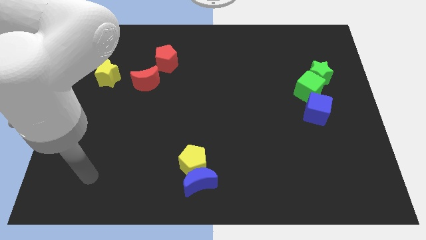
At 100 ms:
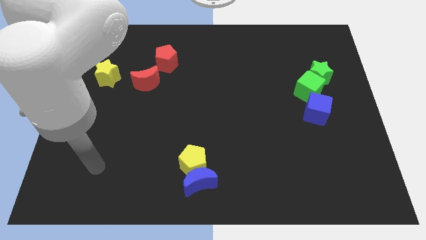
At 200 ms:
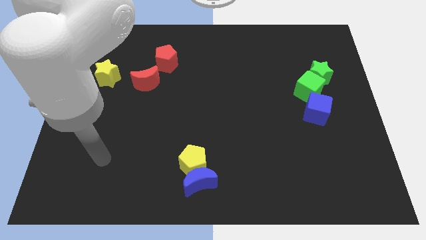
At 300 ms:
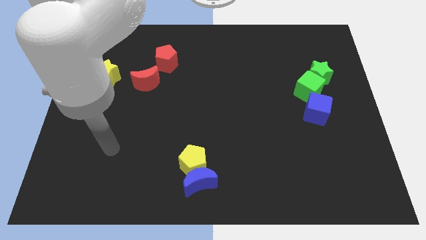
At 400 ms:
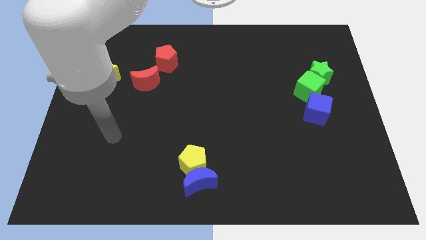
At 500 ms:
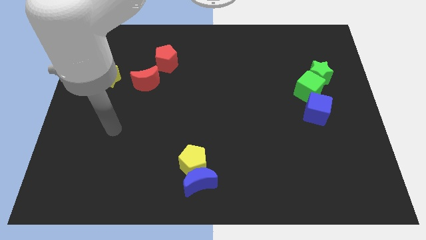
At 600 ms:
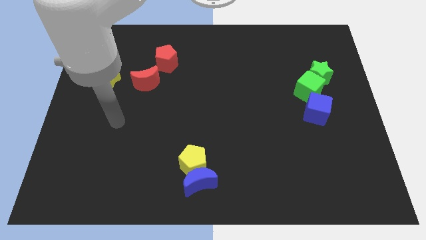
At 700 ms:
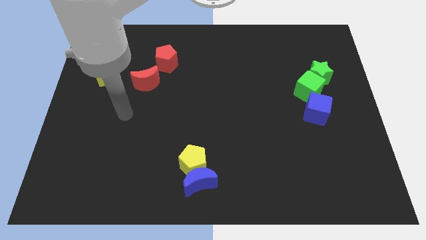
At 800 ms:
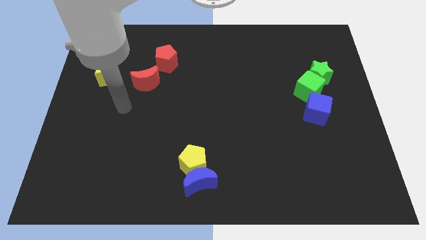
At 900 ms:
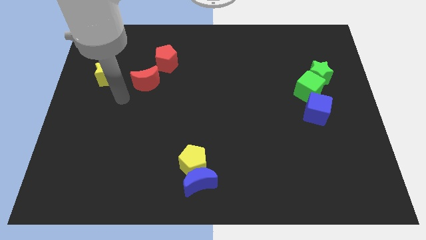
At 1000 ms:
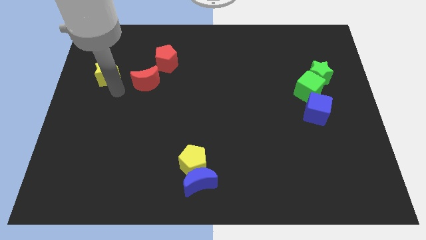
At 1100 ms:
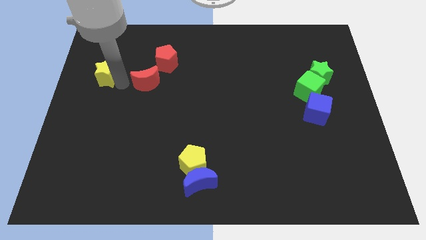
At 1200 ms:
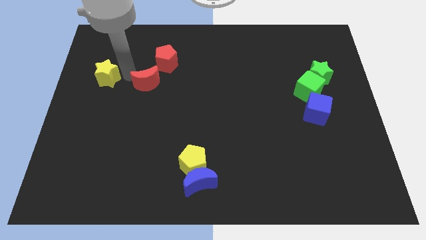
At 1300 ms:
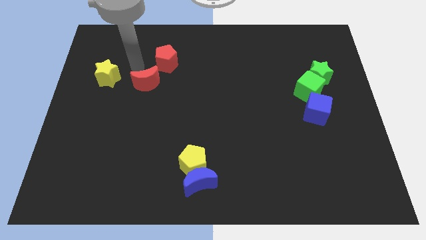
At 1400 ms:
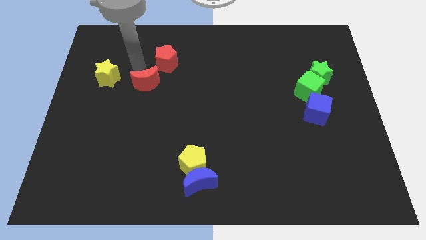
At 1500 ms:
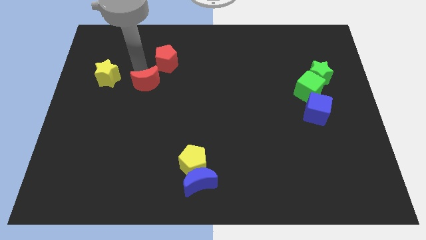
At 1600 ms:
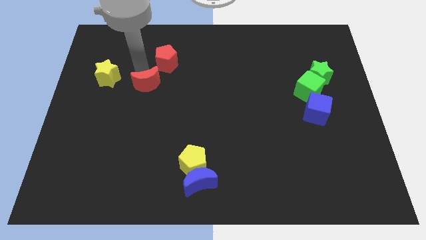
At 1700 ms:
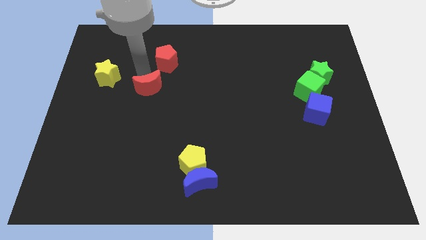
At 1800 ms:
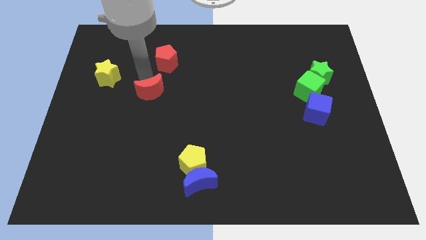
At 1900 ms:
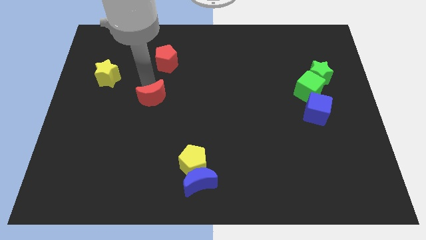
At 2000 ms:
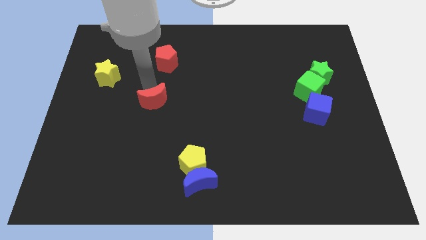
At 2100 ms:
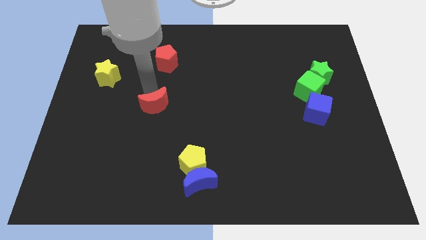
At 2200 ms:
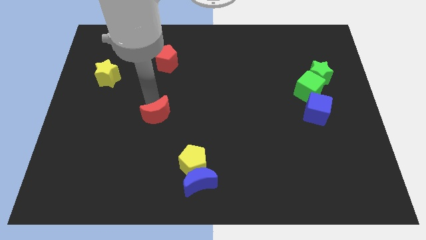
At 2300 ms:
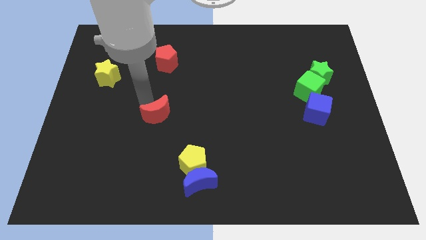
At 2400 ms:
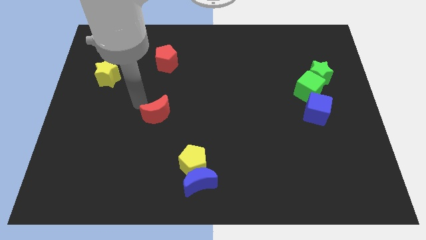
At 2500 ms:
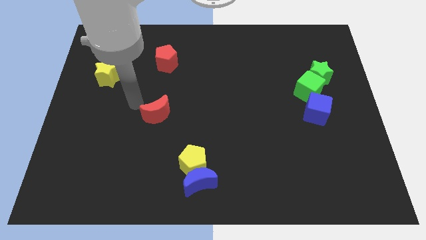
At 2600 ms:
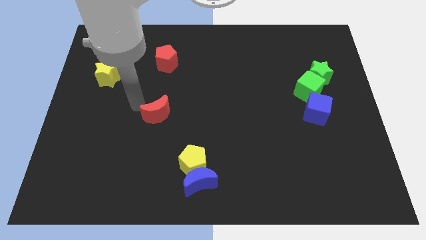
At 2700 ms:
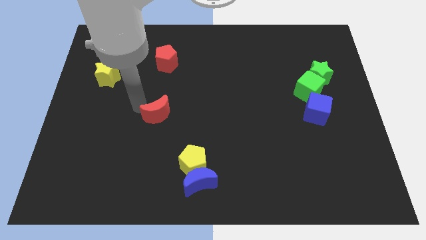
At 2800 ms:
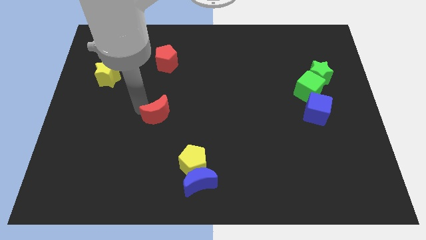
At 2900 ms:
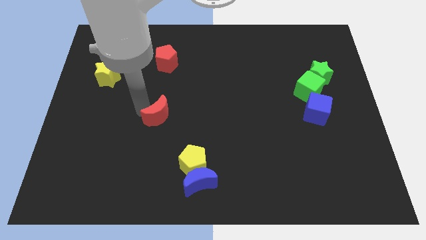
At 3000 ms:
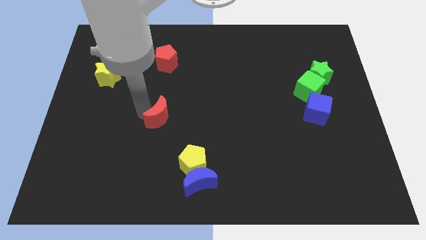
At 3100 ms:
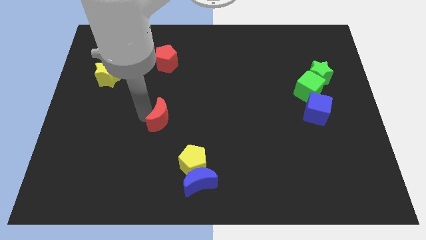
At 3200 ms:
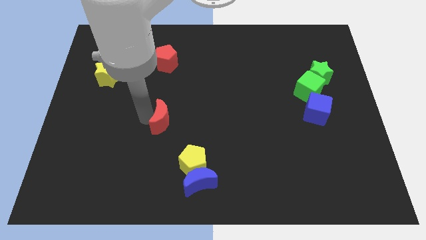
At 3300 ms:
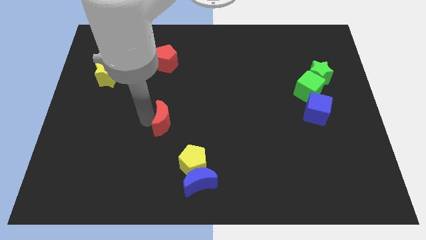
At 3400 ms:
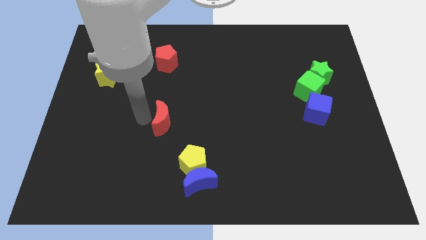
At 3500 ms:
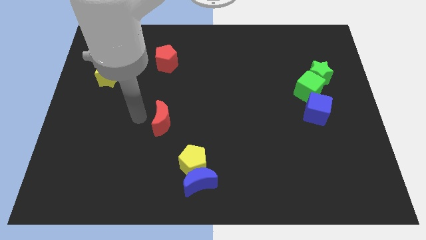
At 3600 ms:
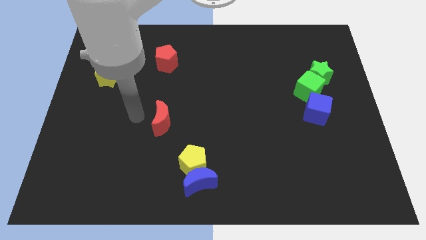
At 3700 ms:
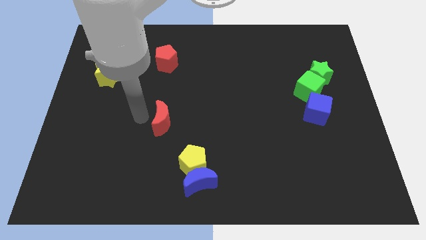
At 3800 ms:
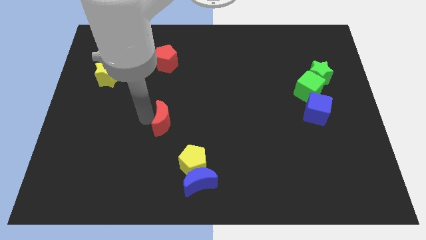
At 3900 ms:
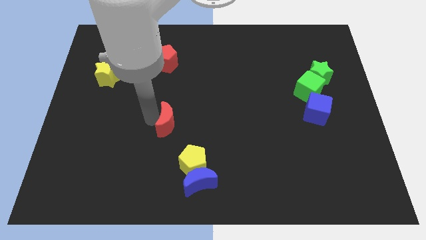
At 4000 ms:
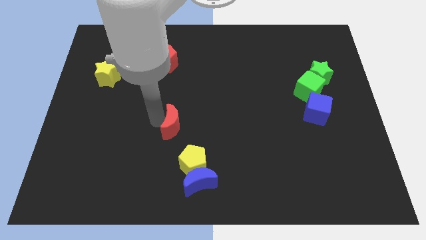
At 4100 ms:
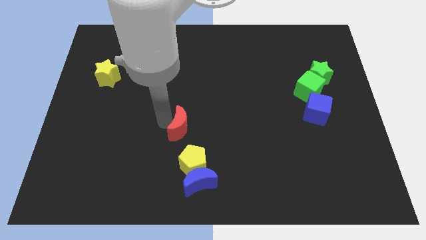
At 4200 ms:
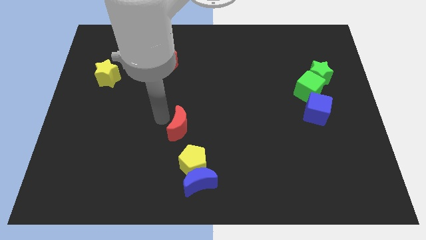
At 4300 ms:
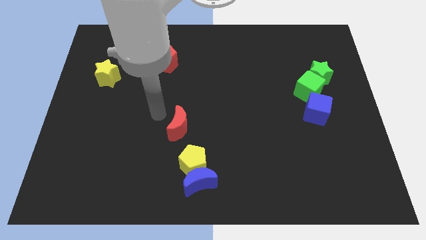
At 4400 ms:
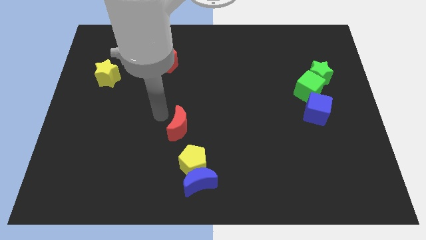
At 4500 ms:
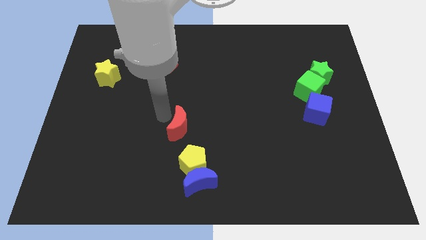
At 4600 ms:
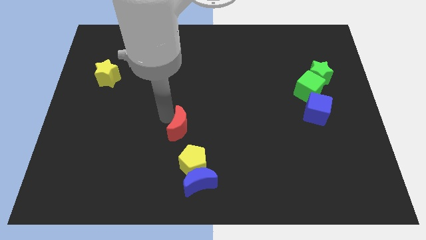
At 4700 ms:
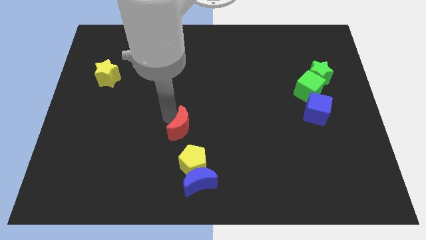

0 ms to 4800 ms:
push the red moon to the top side of the blue moon

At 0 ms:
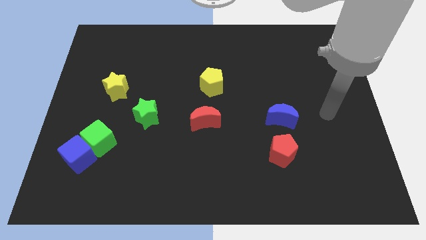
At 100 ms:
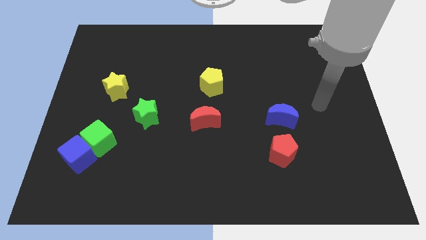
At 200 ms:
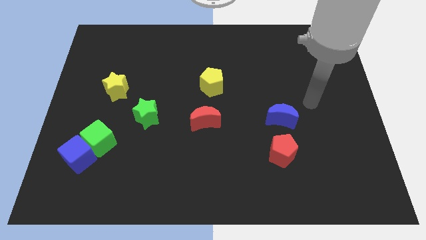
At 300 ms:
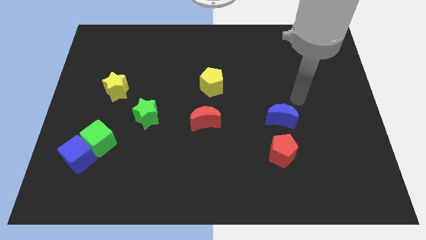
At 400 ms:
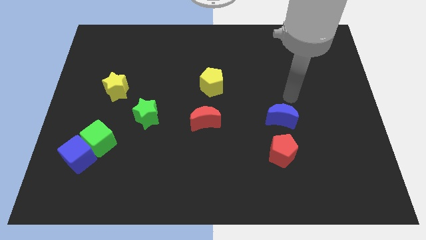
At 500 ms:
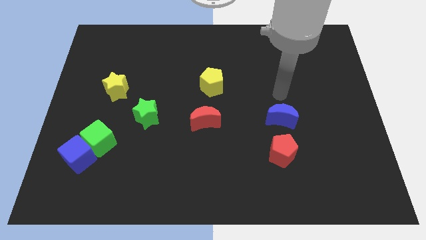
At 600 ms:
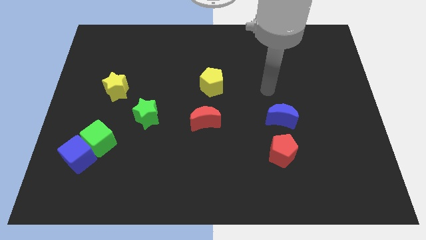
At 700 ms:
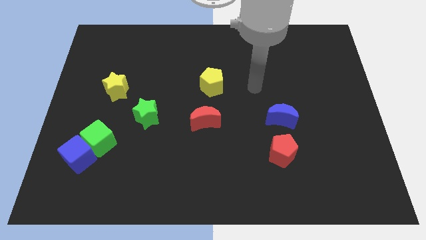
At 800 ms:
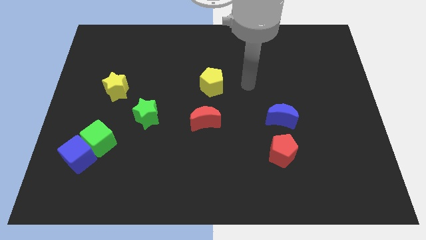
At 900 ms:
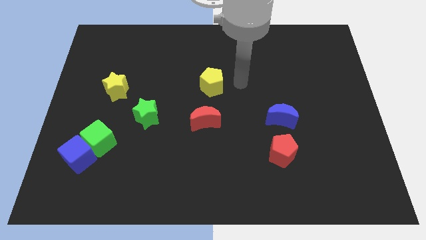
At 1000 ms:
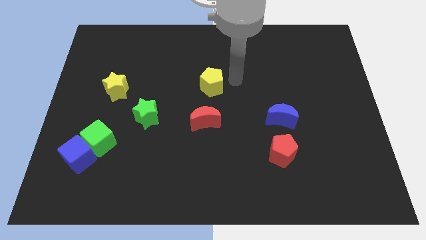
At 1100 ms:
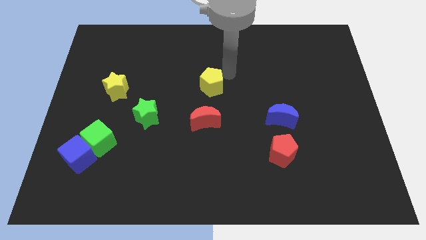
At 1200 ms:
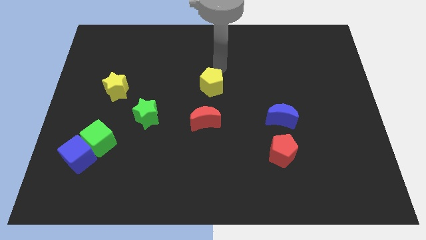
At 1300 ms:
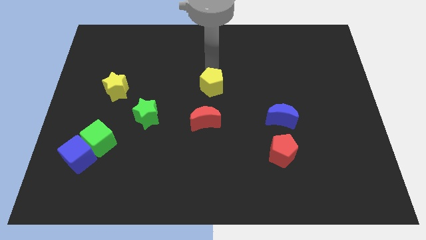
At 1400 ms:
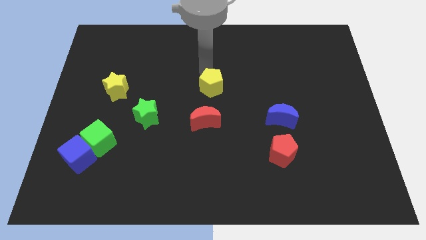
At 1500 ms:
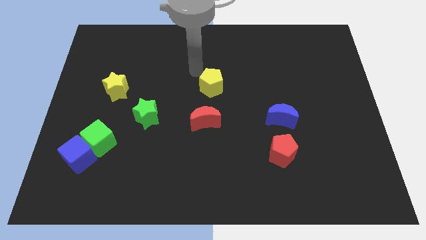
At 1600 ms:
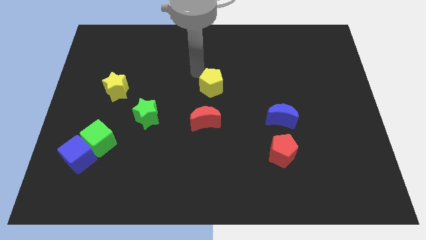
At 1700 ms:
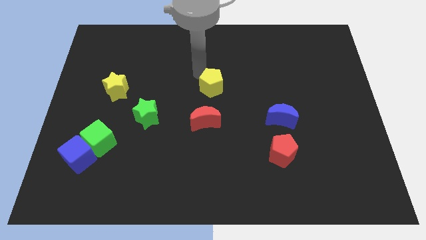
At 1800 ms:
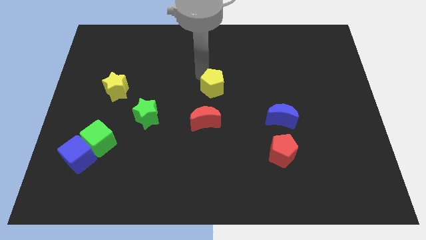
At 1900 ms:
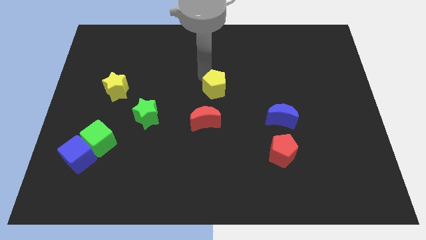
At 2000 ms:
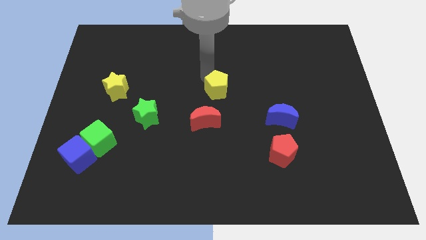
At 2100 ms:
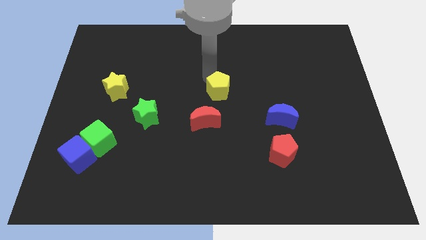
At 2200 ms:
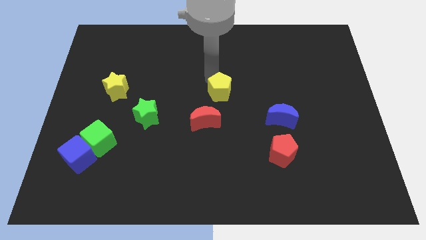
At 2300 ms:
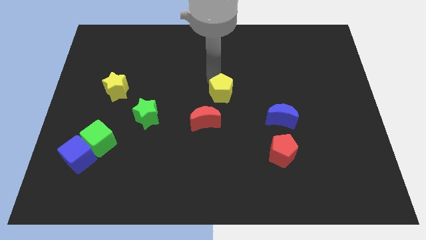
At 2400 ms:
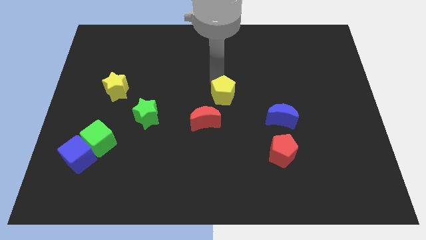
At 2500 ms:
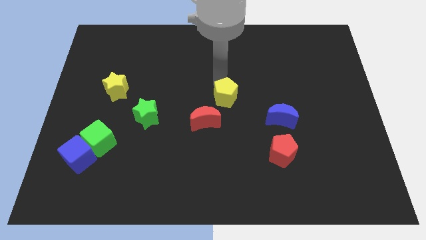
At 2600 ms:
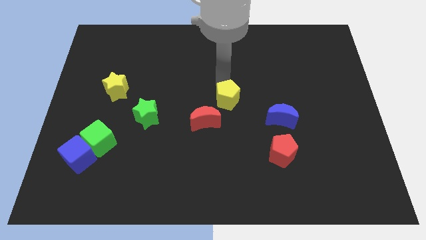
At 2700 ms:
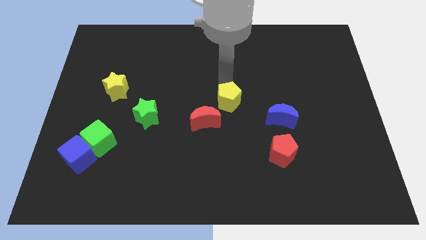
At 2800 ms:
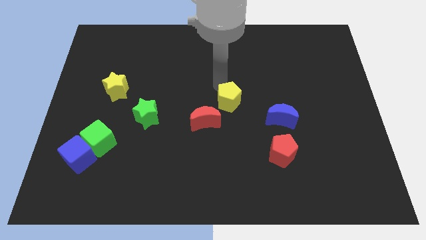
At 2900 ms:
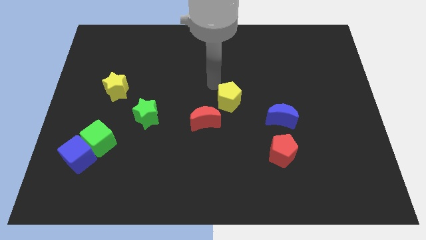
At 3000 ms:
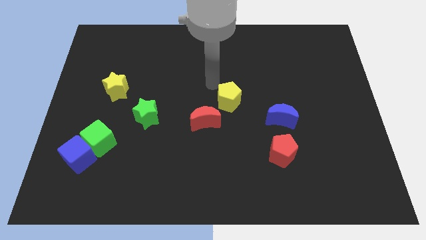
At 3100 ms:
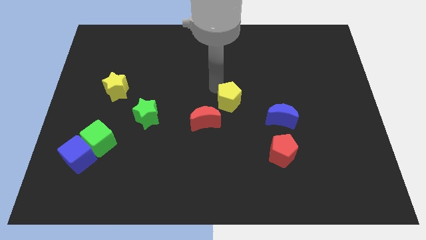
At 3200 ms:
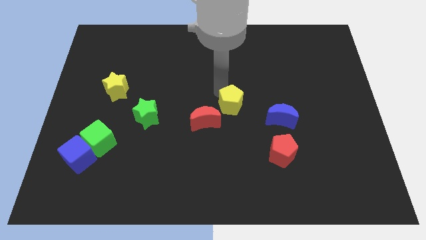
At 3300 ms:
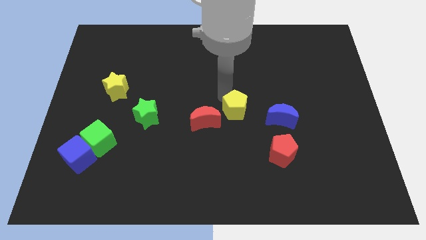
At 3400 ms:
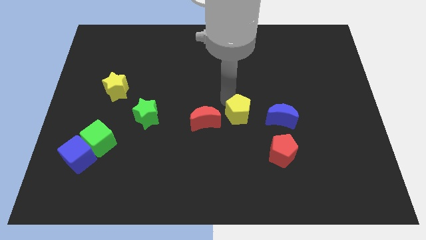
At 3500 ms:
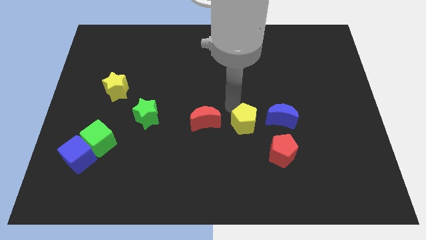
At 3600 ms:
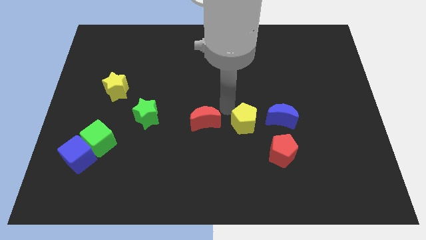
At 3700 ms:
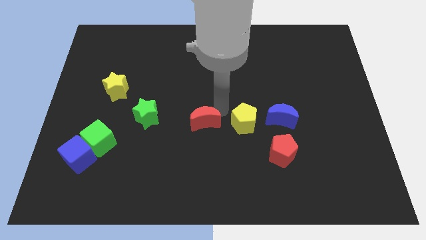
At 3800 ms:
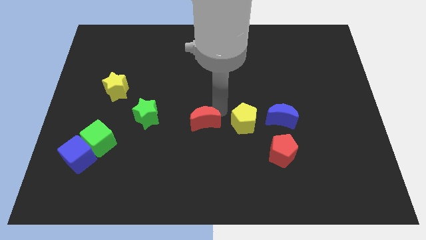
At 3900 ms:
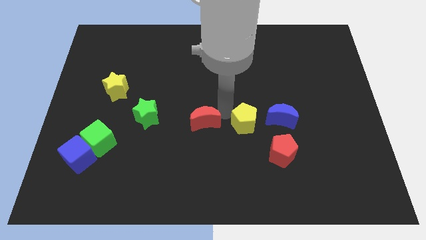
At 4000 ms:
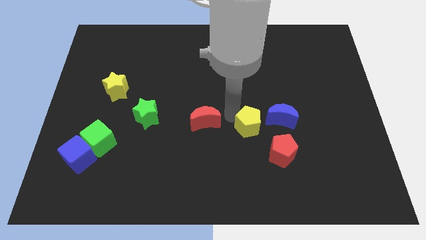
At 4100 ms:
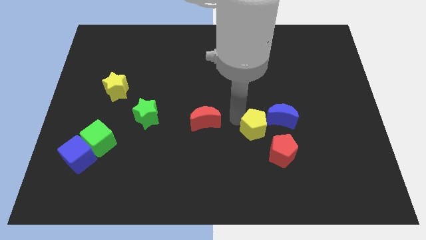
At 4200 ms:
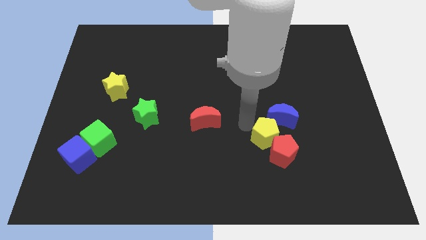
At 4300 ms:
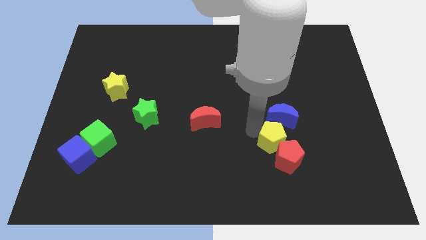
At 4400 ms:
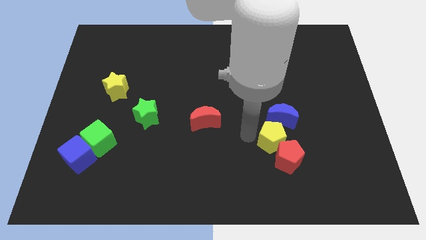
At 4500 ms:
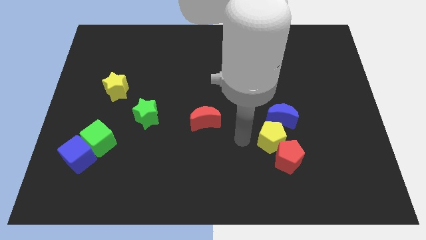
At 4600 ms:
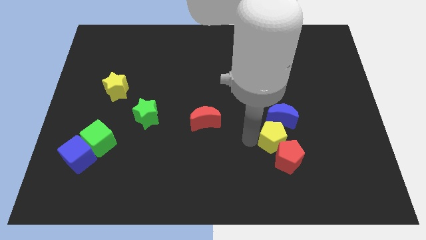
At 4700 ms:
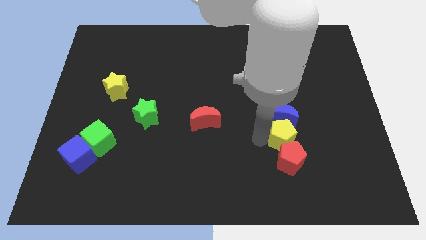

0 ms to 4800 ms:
put the yellow pentagon to the top right side of the red pentagon
